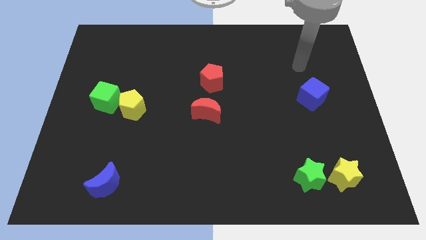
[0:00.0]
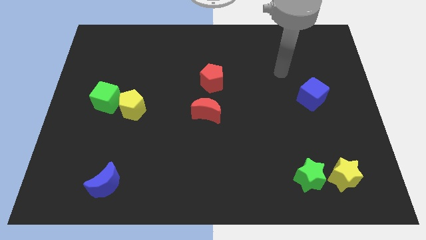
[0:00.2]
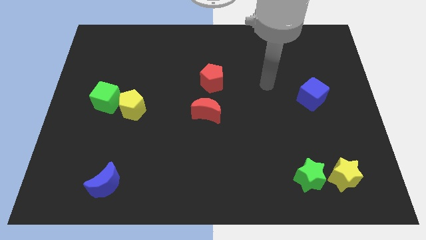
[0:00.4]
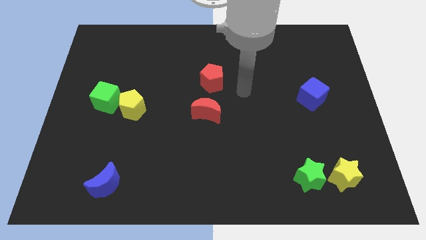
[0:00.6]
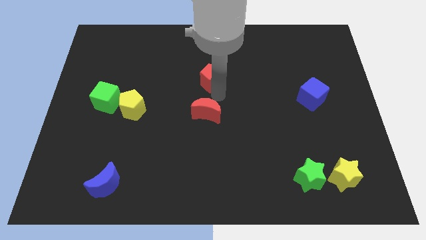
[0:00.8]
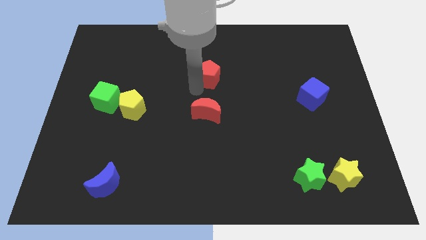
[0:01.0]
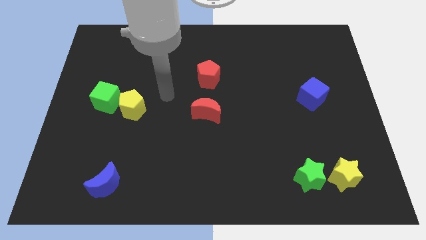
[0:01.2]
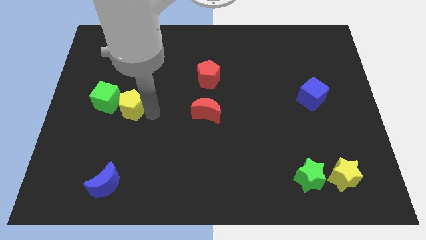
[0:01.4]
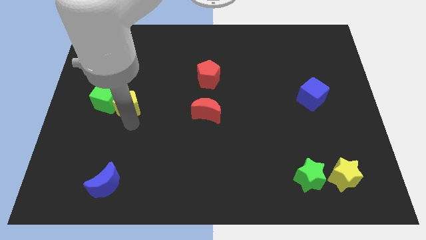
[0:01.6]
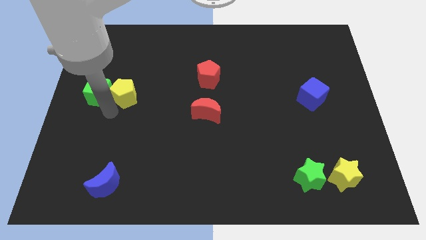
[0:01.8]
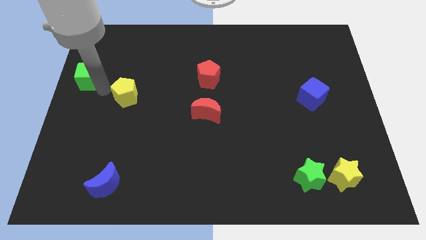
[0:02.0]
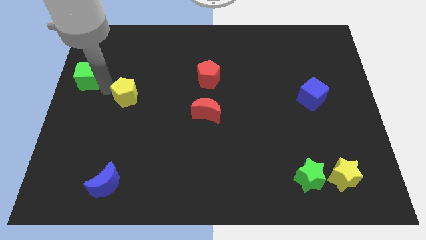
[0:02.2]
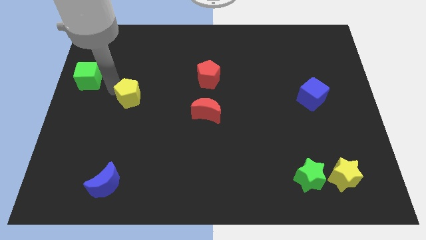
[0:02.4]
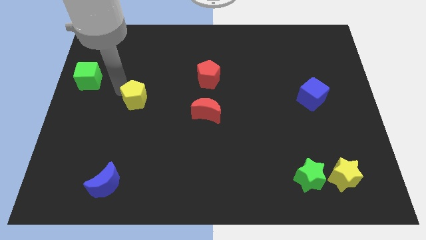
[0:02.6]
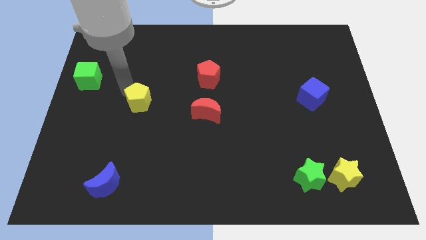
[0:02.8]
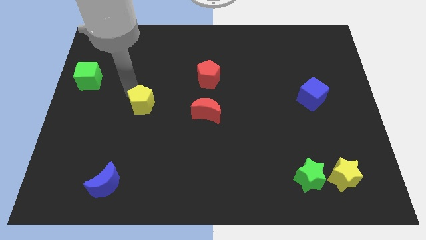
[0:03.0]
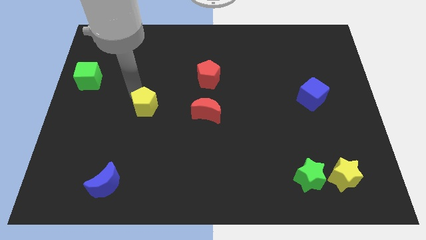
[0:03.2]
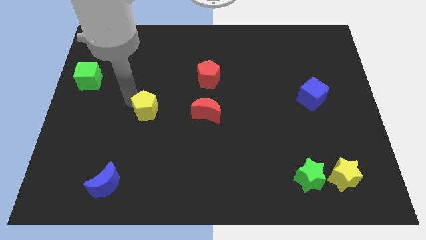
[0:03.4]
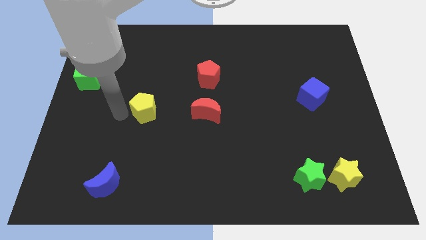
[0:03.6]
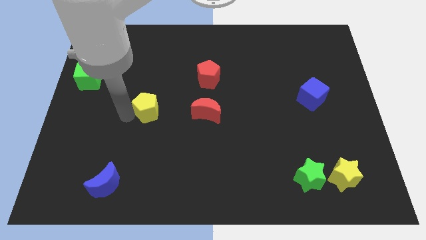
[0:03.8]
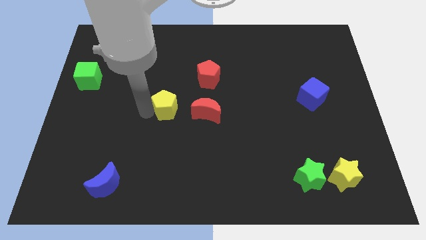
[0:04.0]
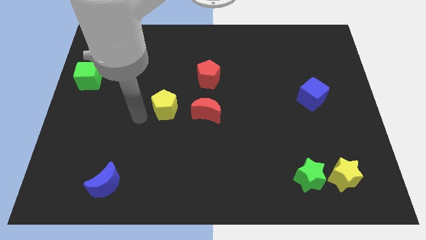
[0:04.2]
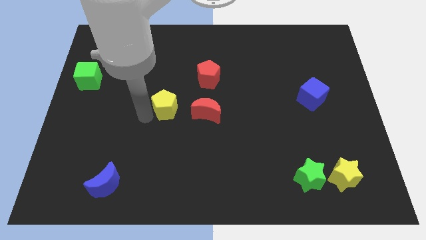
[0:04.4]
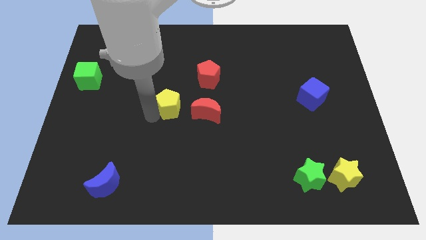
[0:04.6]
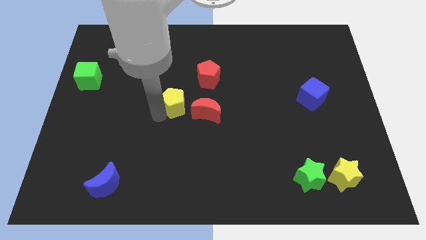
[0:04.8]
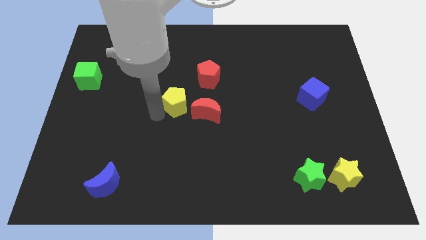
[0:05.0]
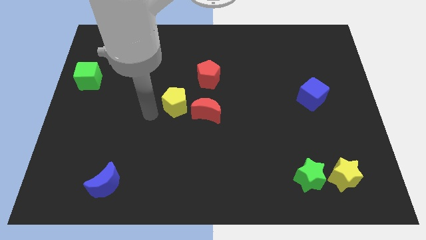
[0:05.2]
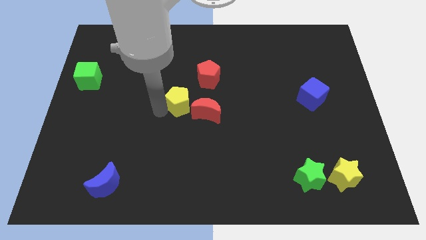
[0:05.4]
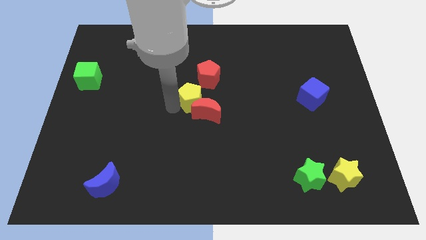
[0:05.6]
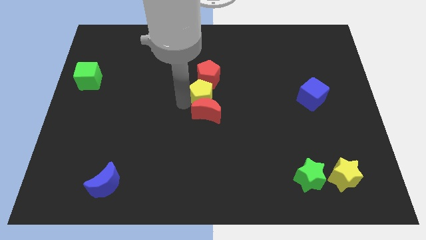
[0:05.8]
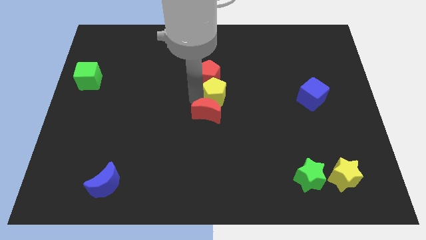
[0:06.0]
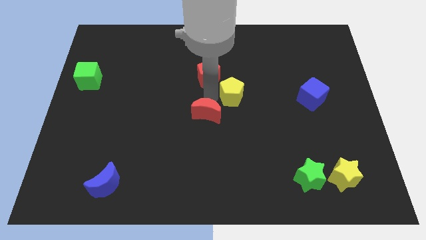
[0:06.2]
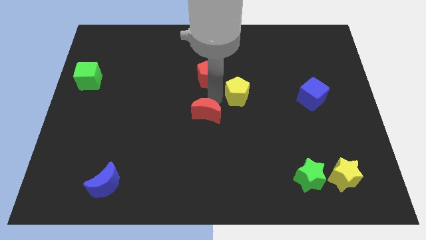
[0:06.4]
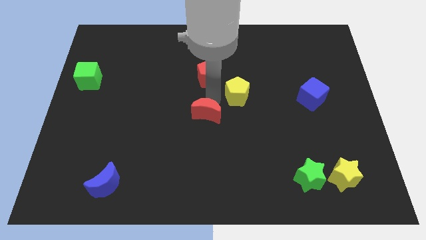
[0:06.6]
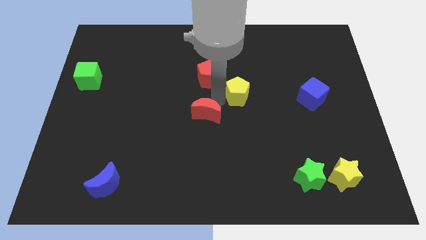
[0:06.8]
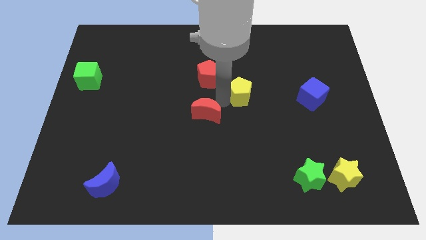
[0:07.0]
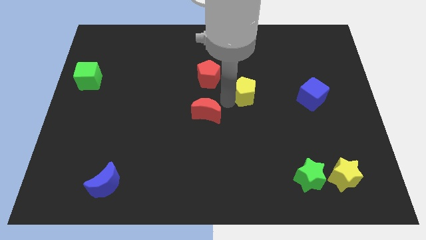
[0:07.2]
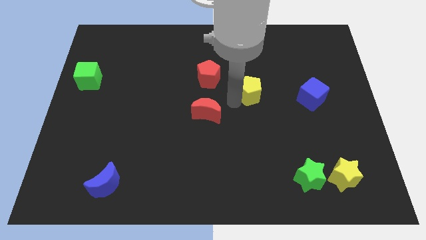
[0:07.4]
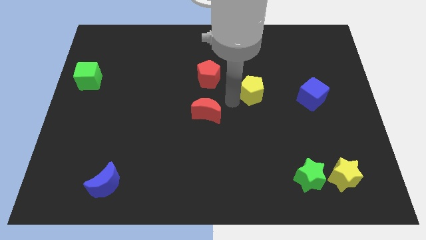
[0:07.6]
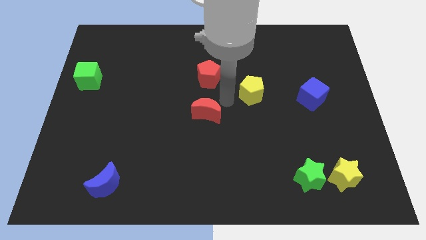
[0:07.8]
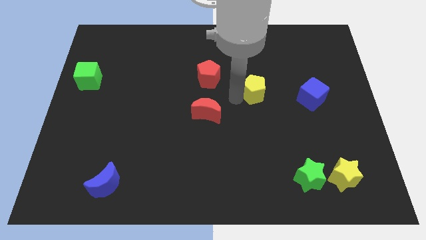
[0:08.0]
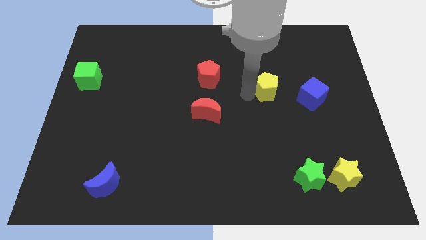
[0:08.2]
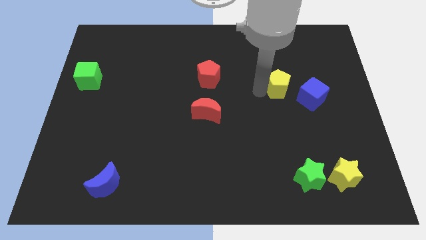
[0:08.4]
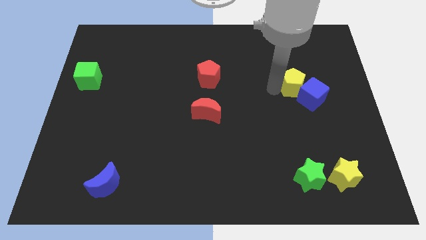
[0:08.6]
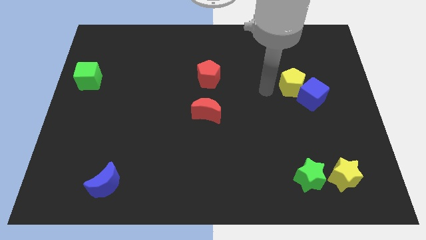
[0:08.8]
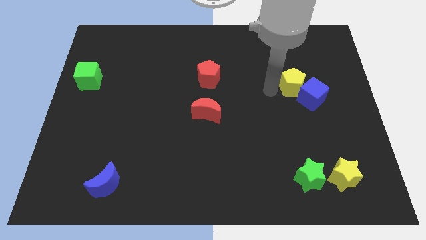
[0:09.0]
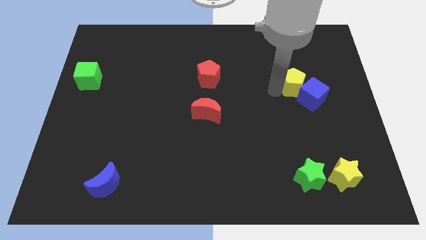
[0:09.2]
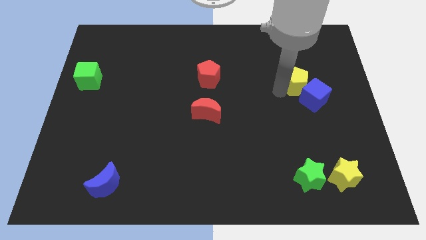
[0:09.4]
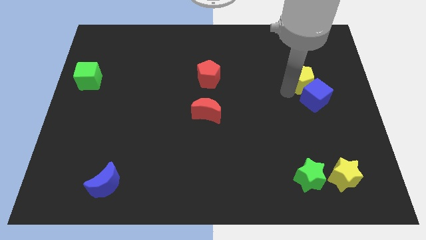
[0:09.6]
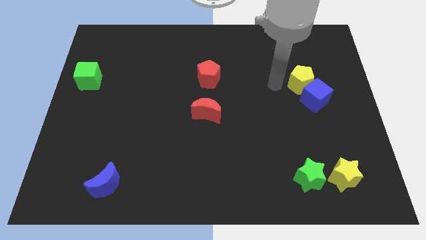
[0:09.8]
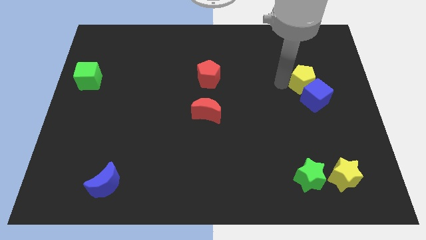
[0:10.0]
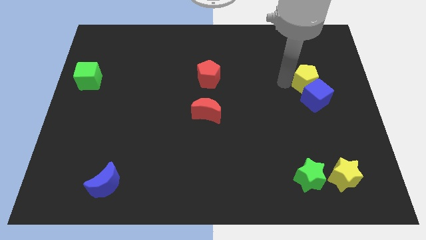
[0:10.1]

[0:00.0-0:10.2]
put the yellow pentagon to the top right side of the blue cube

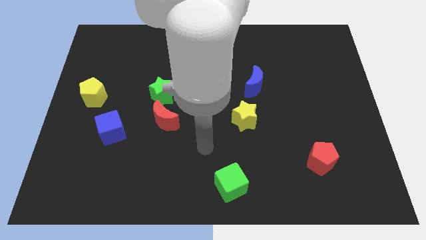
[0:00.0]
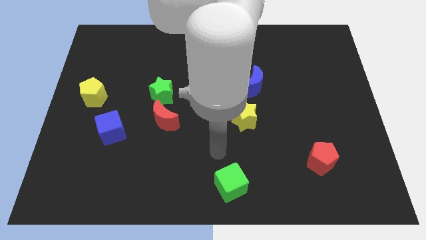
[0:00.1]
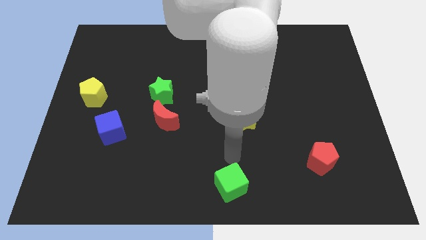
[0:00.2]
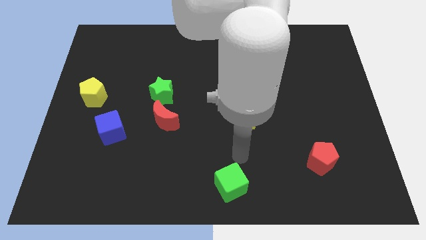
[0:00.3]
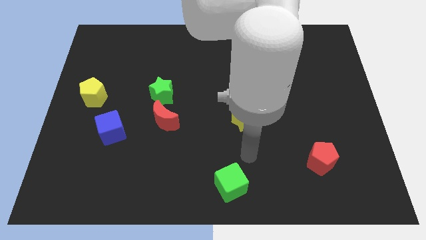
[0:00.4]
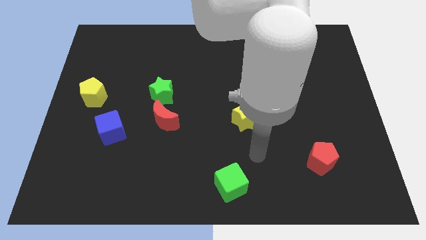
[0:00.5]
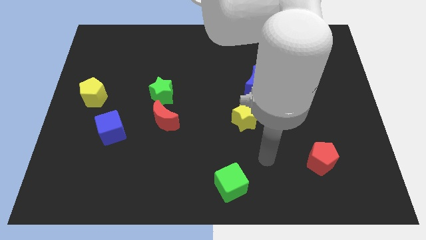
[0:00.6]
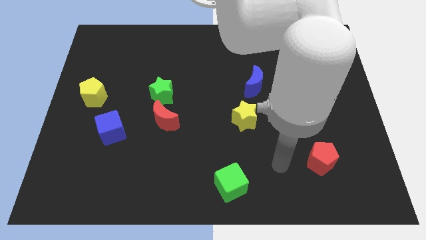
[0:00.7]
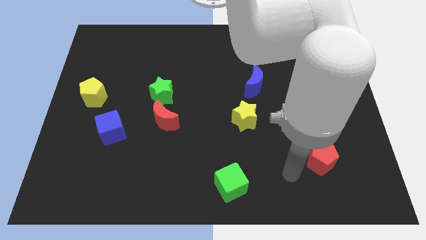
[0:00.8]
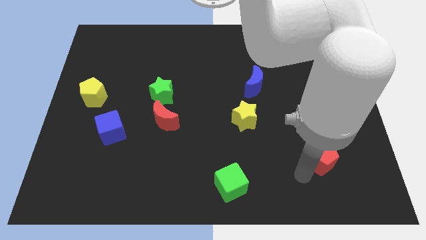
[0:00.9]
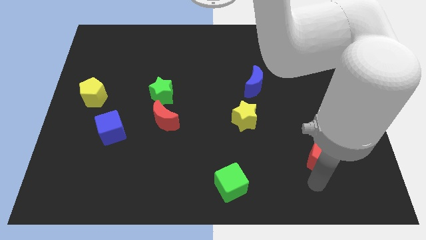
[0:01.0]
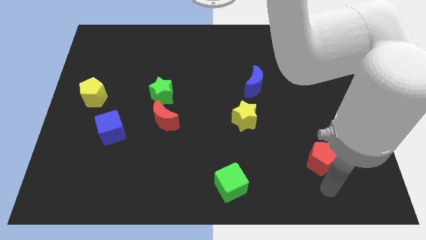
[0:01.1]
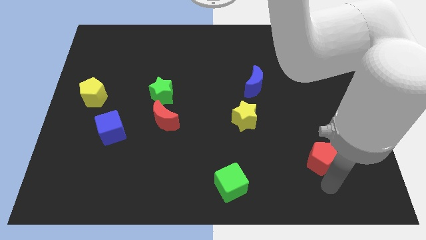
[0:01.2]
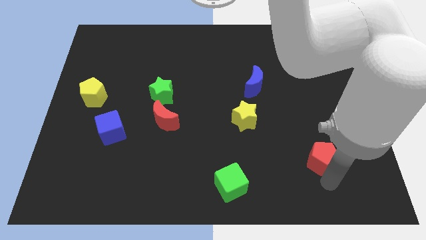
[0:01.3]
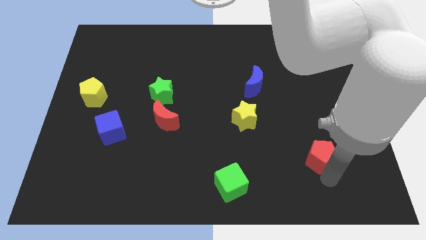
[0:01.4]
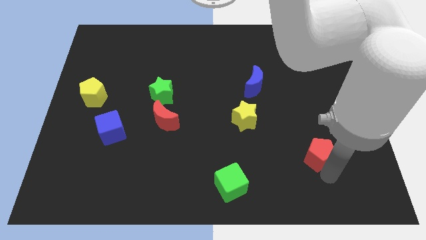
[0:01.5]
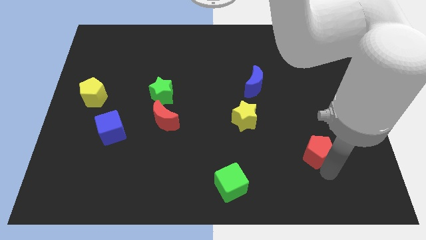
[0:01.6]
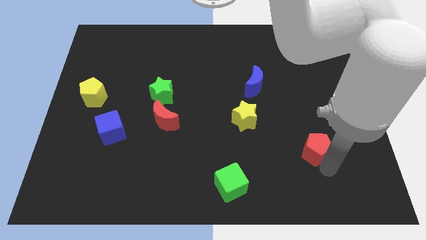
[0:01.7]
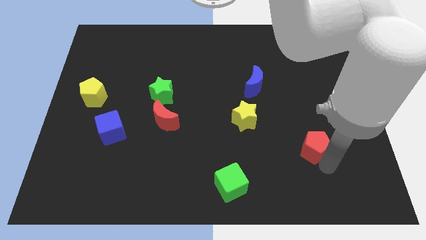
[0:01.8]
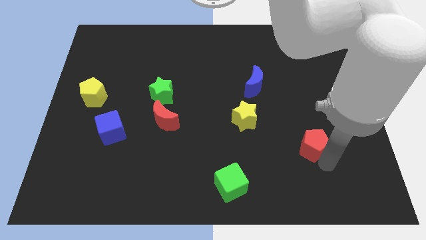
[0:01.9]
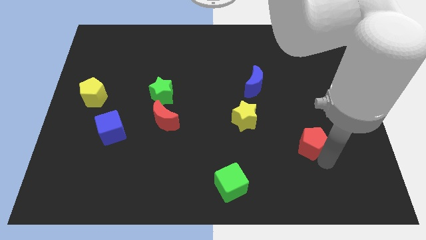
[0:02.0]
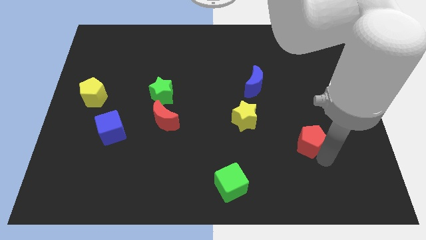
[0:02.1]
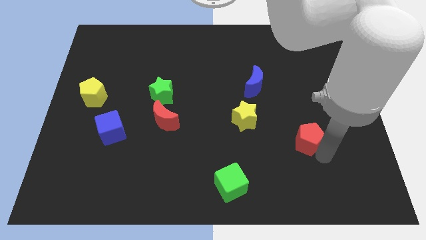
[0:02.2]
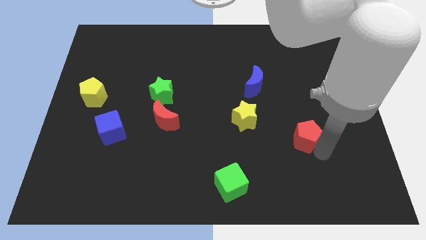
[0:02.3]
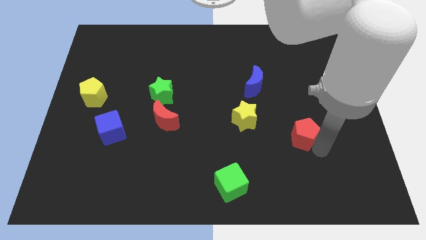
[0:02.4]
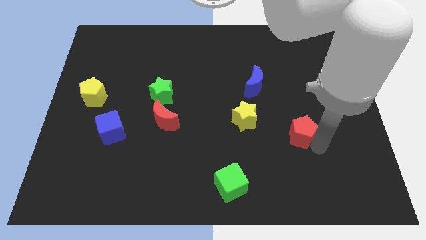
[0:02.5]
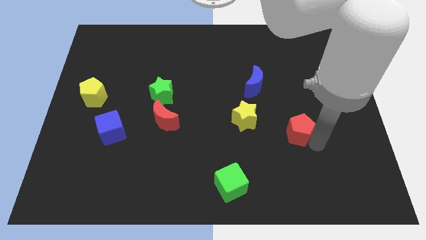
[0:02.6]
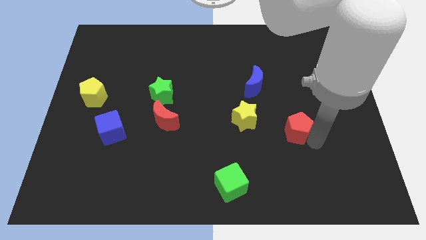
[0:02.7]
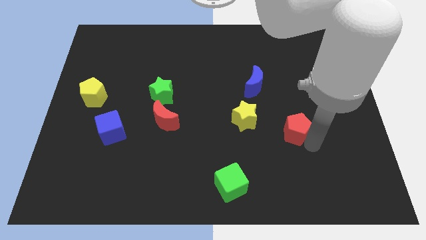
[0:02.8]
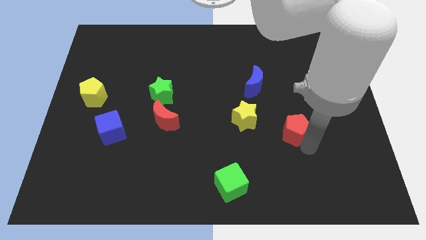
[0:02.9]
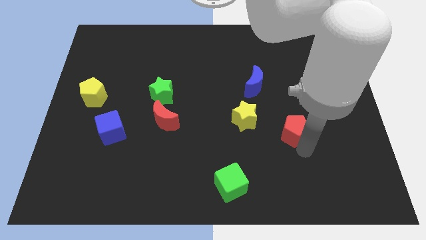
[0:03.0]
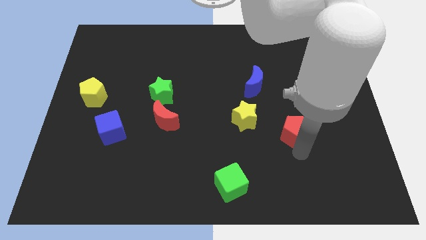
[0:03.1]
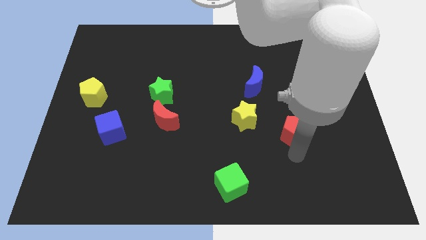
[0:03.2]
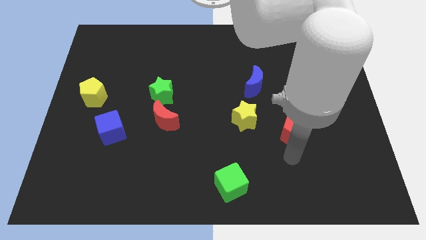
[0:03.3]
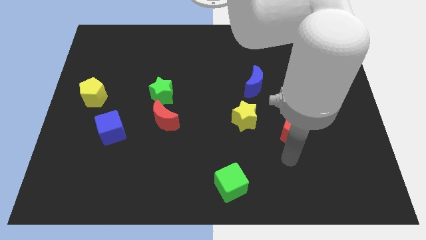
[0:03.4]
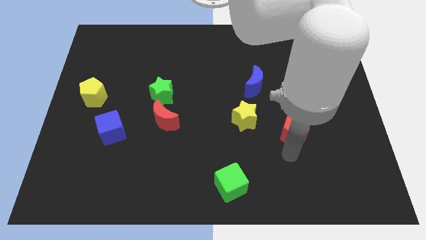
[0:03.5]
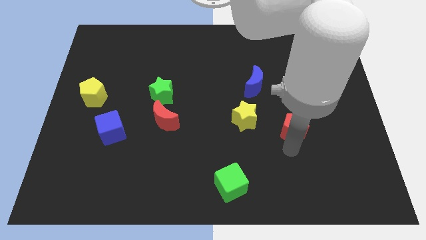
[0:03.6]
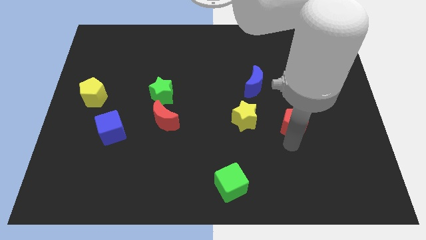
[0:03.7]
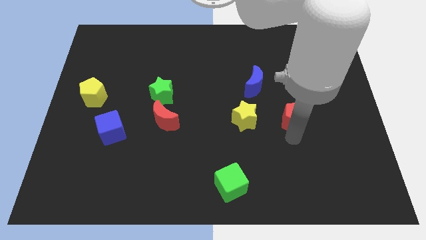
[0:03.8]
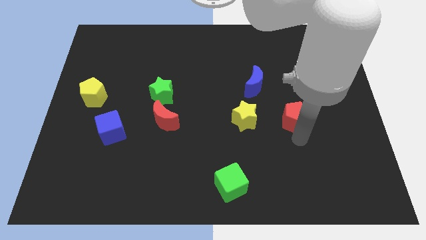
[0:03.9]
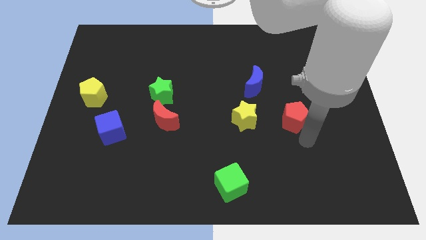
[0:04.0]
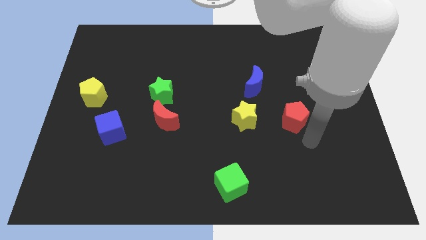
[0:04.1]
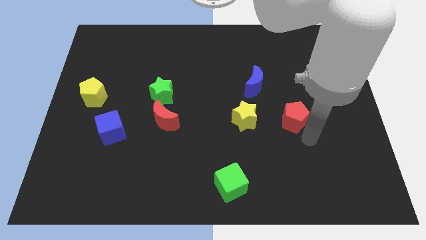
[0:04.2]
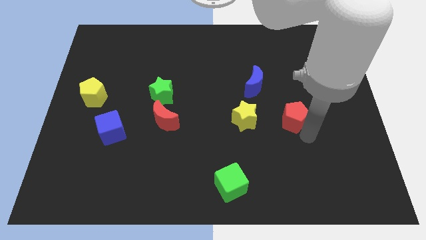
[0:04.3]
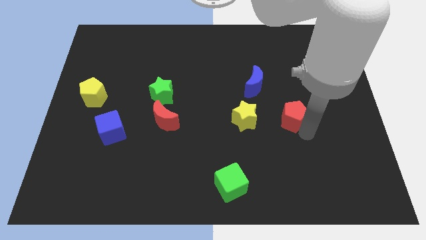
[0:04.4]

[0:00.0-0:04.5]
put the red pentagon to the bottom right of the blue moon
